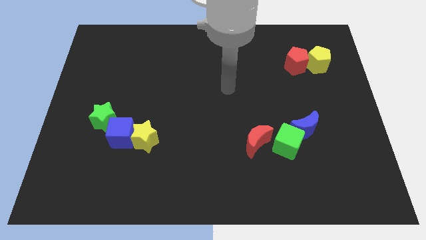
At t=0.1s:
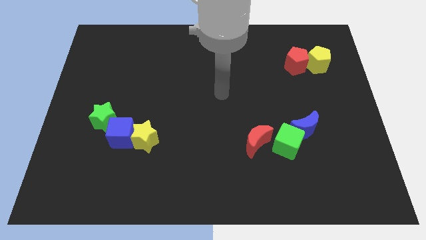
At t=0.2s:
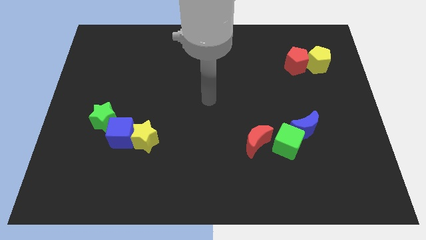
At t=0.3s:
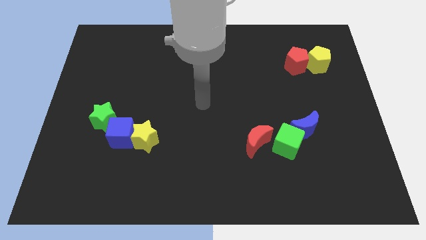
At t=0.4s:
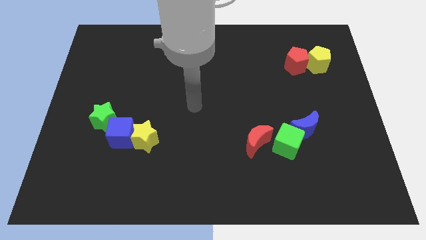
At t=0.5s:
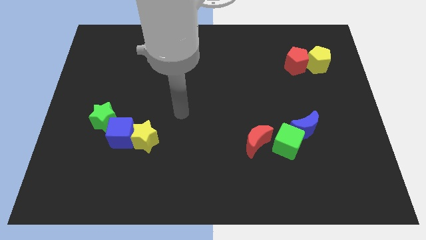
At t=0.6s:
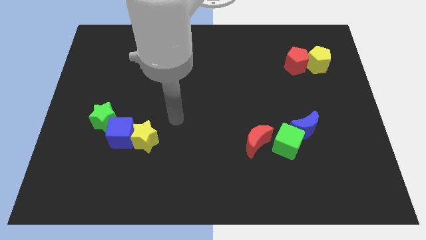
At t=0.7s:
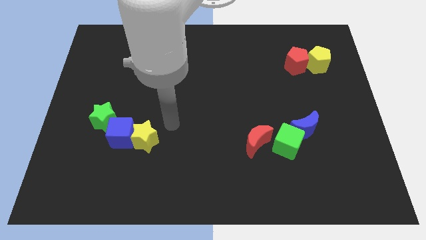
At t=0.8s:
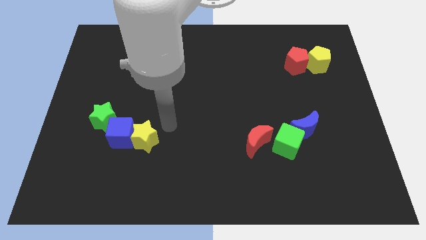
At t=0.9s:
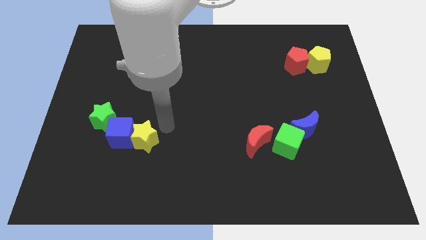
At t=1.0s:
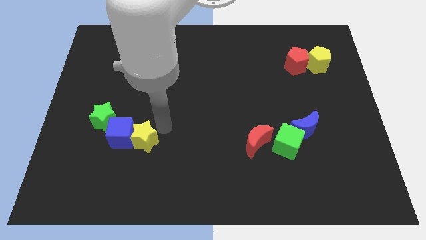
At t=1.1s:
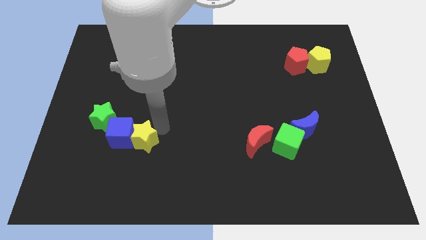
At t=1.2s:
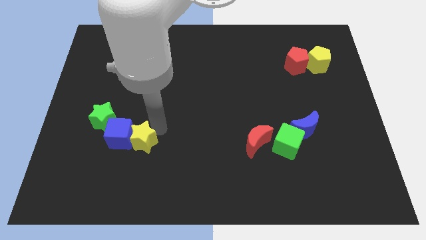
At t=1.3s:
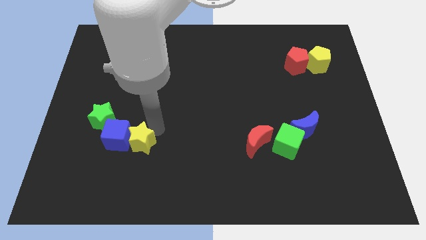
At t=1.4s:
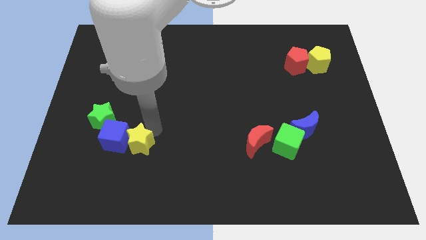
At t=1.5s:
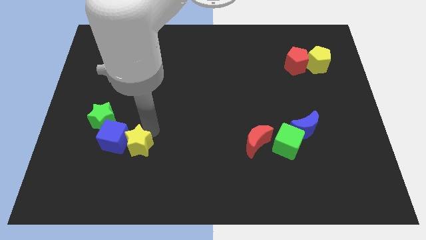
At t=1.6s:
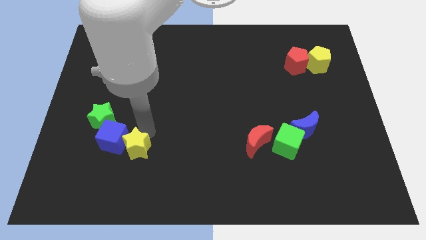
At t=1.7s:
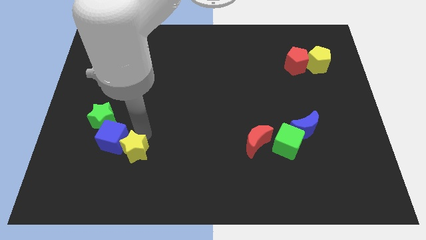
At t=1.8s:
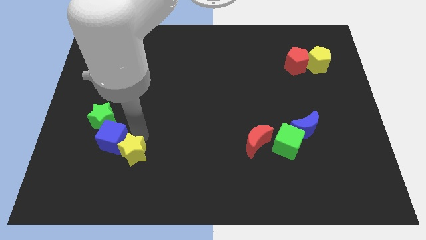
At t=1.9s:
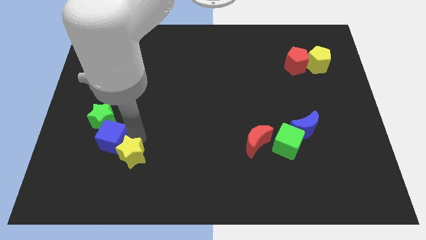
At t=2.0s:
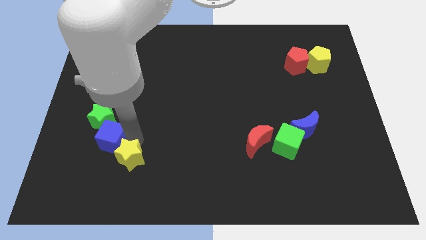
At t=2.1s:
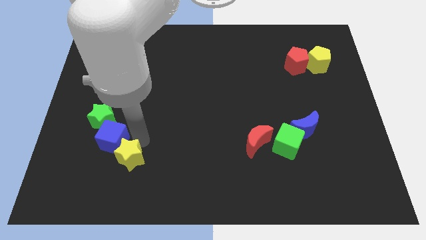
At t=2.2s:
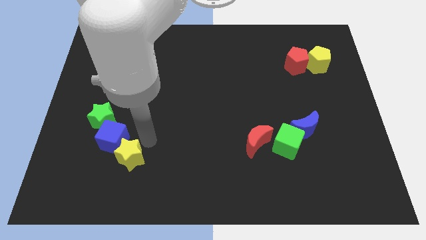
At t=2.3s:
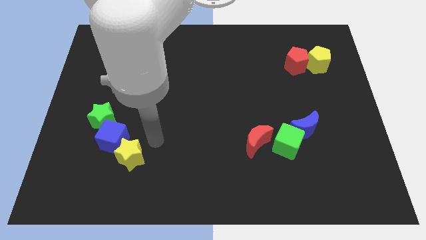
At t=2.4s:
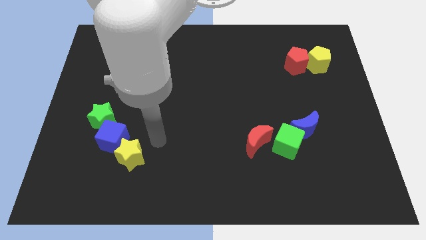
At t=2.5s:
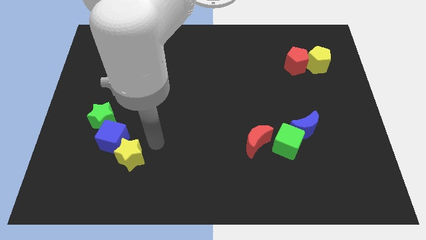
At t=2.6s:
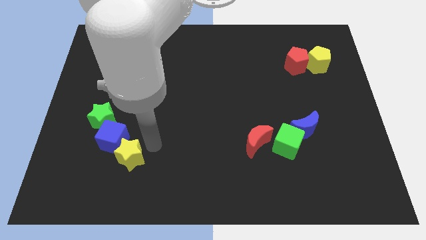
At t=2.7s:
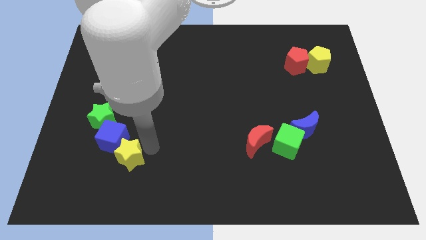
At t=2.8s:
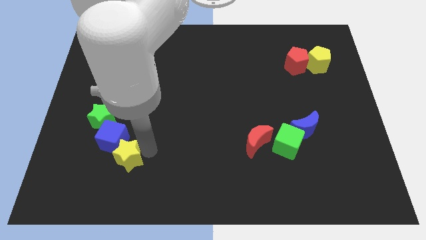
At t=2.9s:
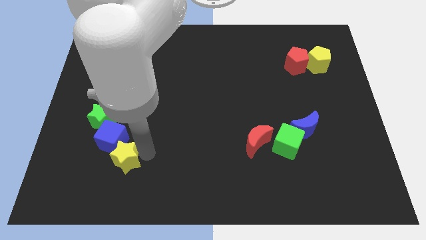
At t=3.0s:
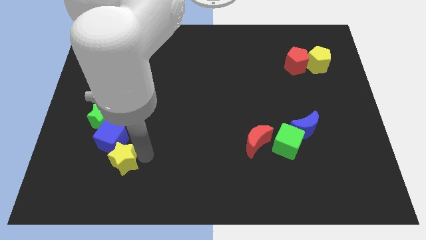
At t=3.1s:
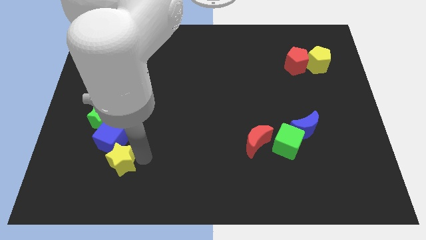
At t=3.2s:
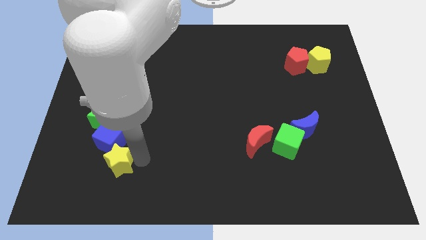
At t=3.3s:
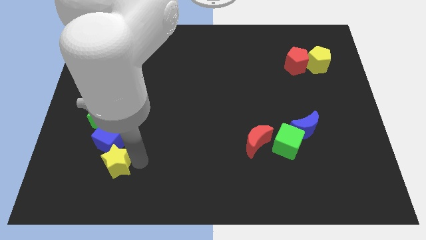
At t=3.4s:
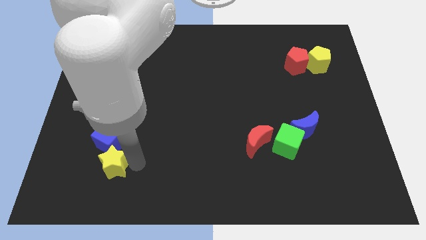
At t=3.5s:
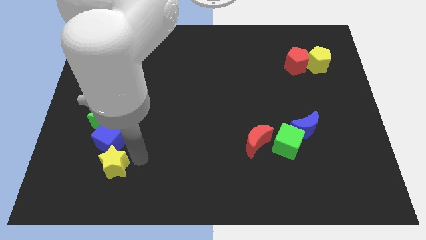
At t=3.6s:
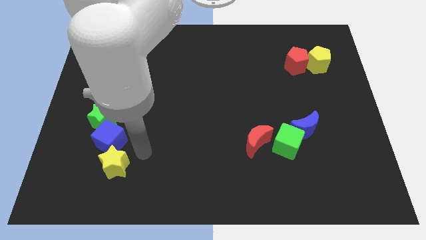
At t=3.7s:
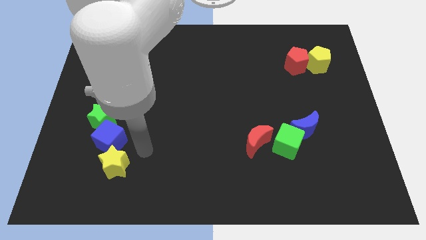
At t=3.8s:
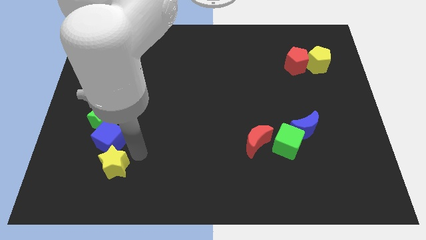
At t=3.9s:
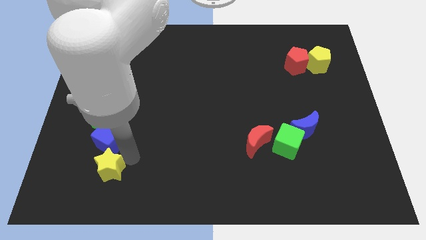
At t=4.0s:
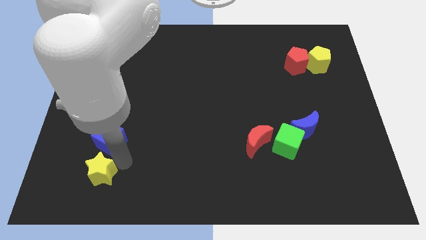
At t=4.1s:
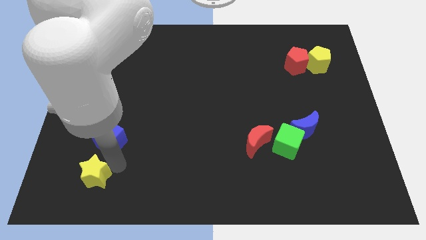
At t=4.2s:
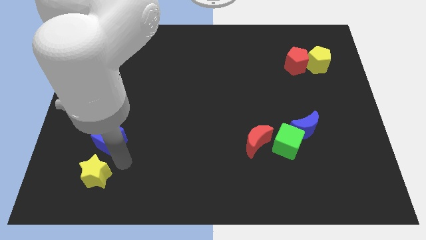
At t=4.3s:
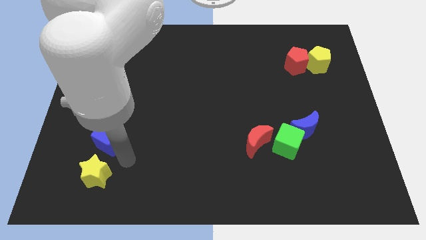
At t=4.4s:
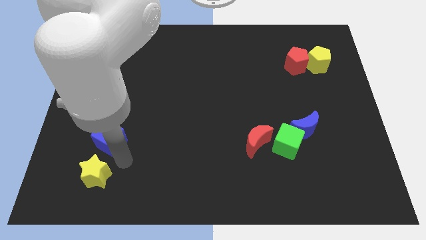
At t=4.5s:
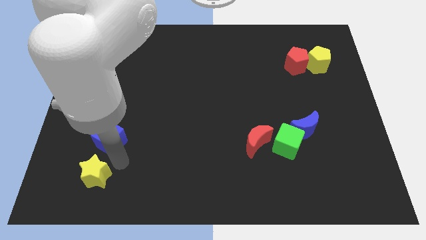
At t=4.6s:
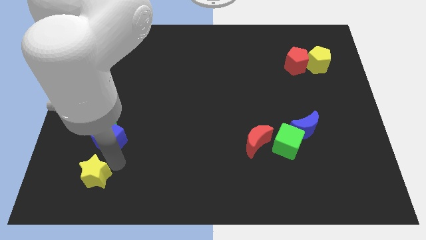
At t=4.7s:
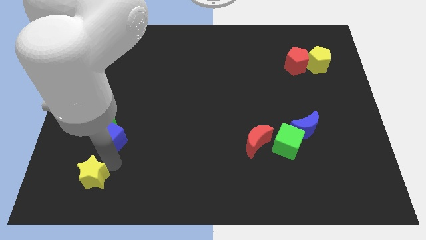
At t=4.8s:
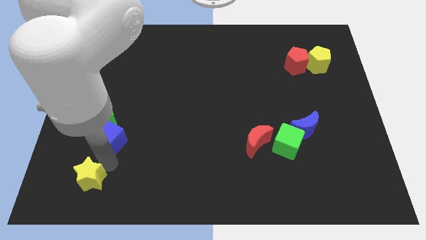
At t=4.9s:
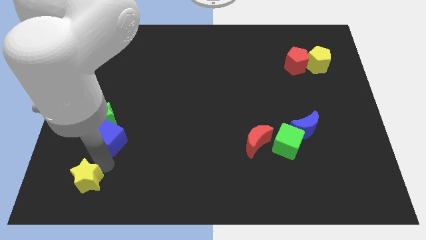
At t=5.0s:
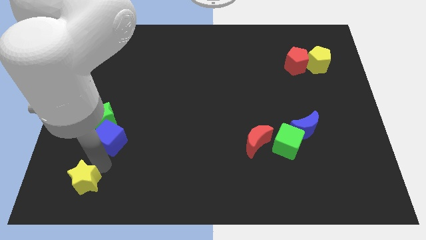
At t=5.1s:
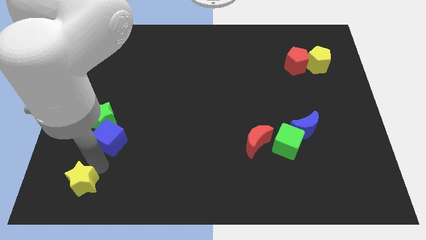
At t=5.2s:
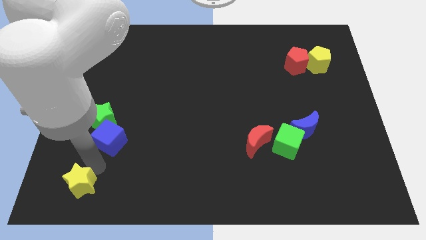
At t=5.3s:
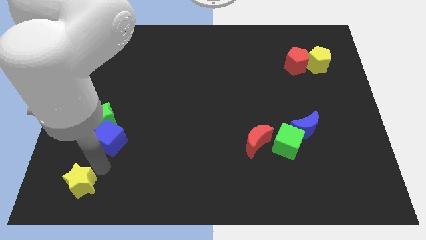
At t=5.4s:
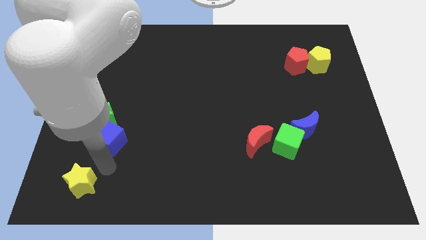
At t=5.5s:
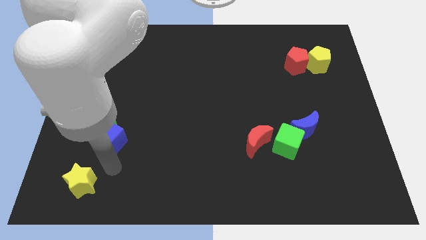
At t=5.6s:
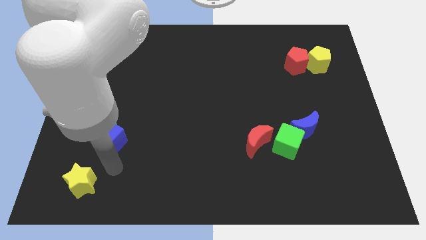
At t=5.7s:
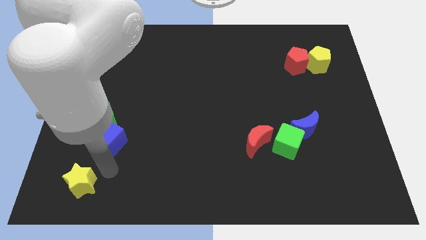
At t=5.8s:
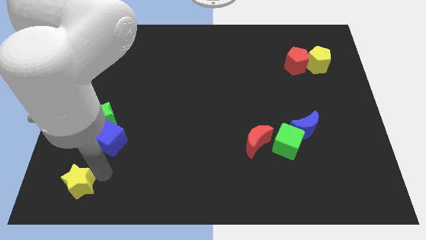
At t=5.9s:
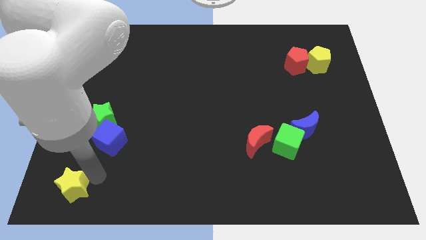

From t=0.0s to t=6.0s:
slide the yellow star to the bottom left of the board

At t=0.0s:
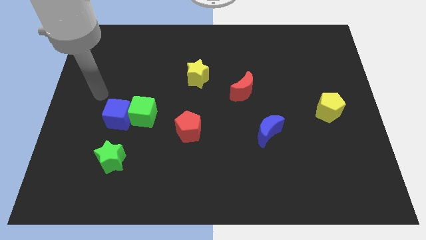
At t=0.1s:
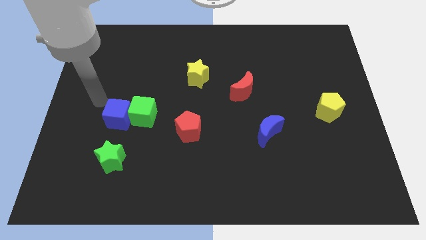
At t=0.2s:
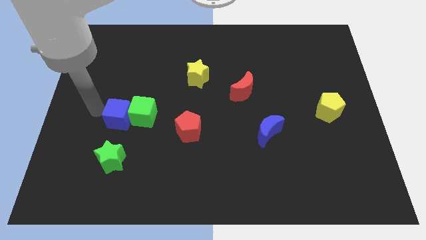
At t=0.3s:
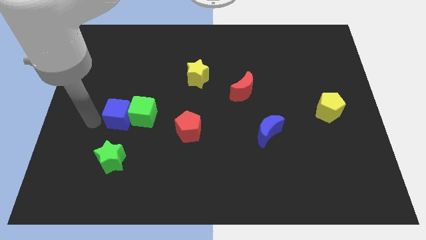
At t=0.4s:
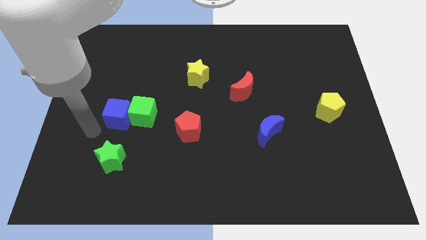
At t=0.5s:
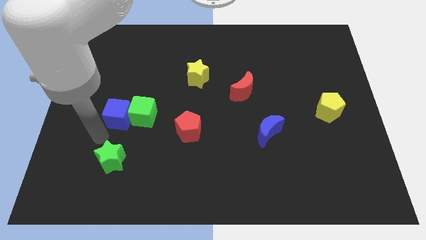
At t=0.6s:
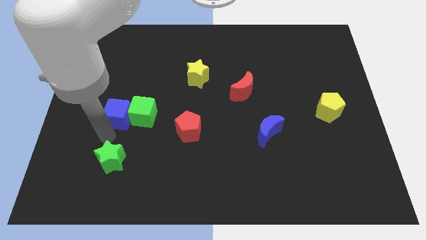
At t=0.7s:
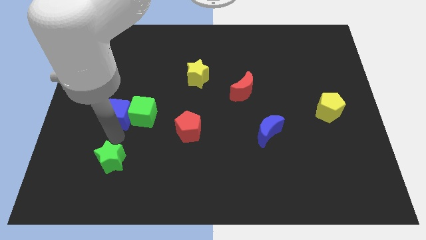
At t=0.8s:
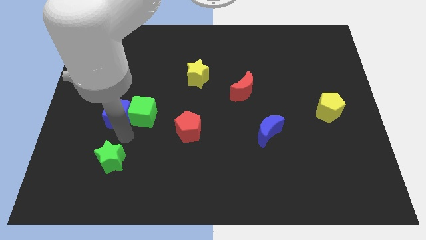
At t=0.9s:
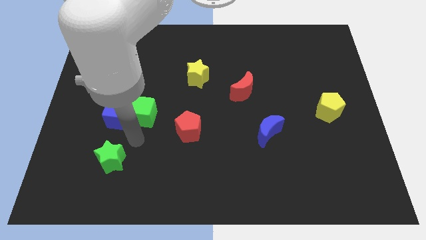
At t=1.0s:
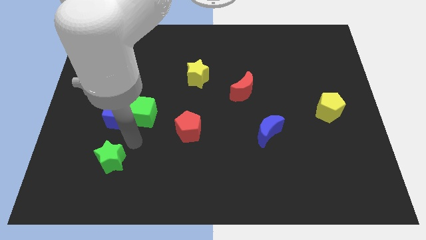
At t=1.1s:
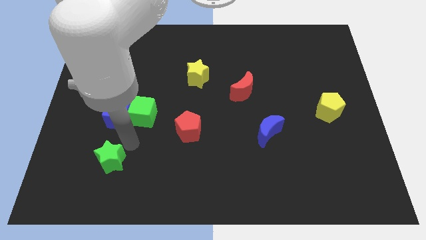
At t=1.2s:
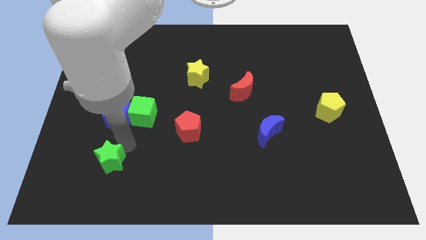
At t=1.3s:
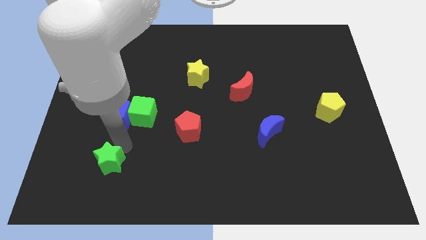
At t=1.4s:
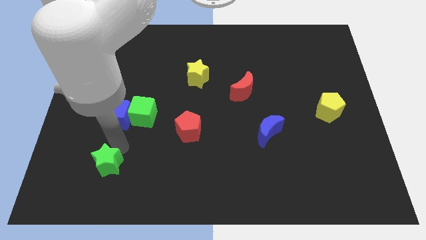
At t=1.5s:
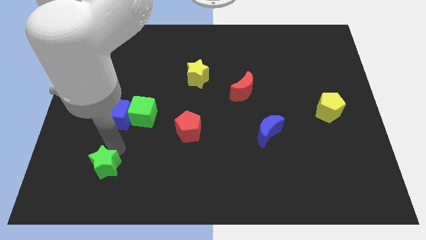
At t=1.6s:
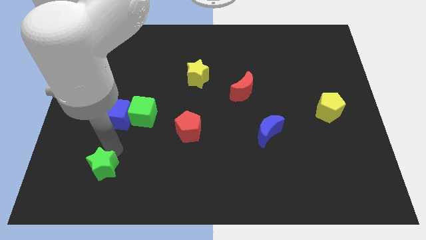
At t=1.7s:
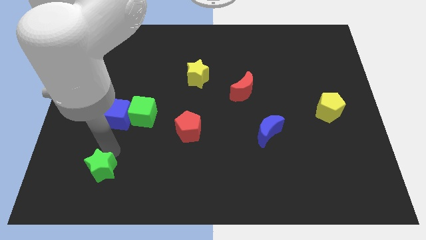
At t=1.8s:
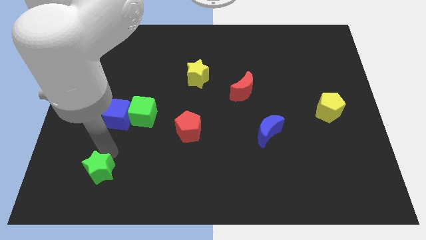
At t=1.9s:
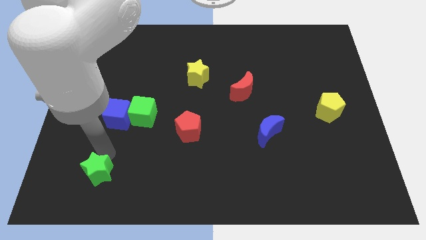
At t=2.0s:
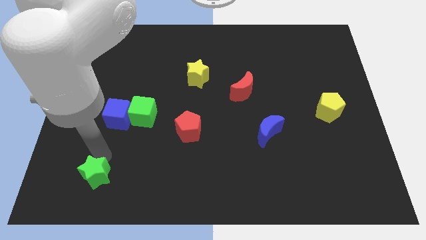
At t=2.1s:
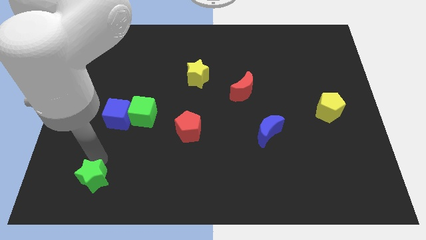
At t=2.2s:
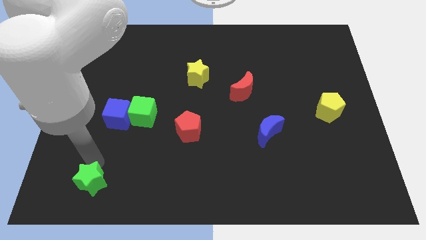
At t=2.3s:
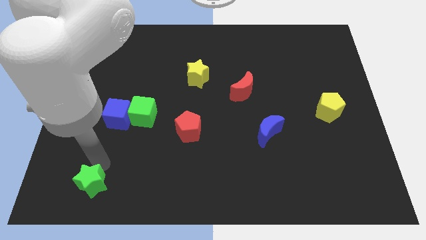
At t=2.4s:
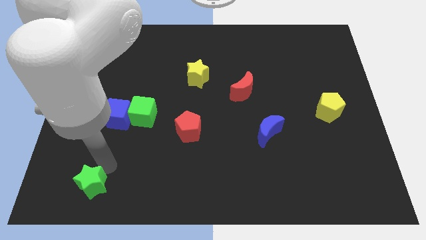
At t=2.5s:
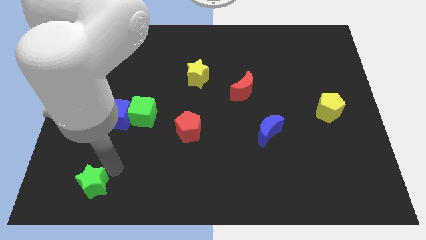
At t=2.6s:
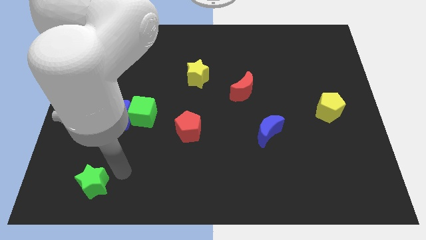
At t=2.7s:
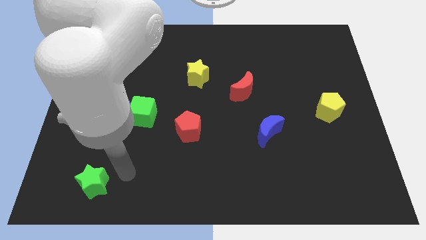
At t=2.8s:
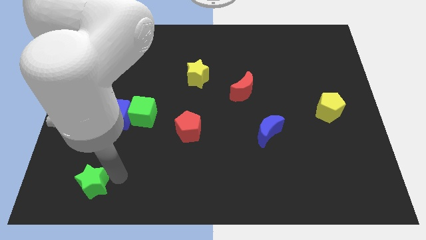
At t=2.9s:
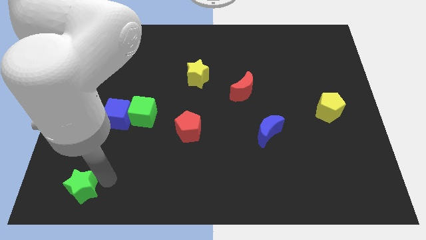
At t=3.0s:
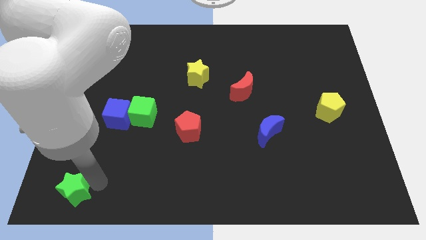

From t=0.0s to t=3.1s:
slide the green star to the bottom left
